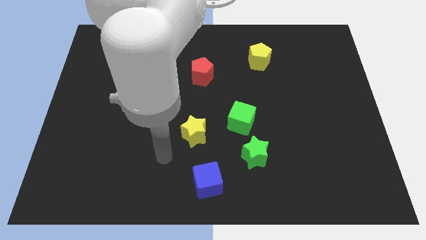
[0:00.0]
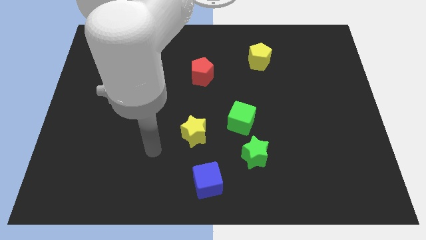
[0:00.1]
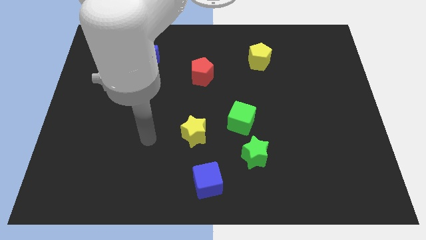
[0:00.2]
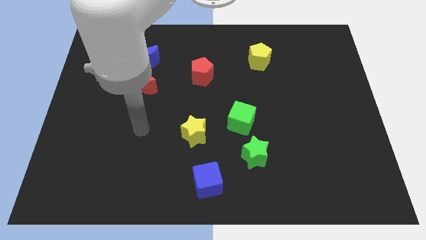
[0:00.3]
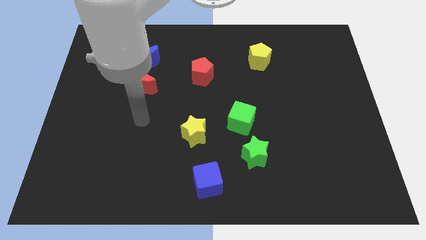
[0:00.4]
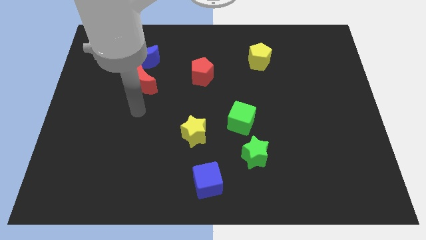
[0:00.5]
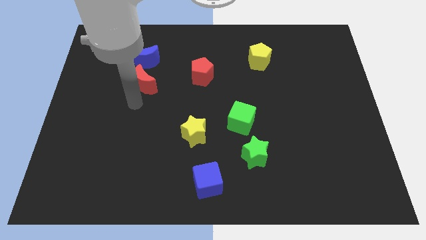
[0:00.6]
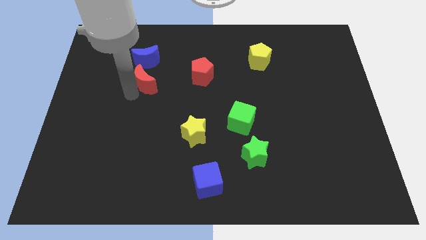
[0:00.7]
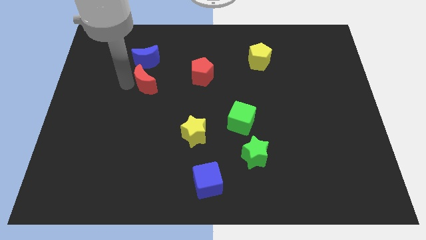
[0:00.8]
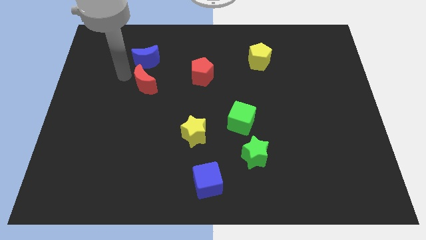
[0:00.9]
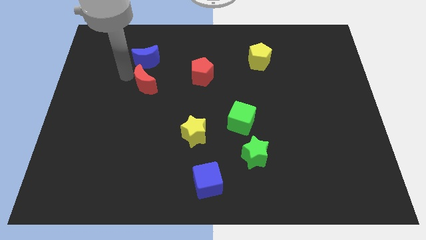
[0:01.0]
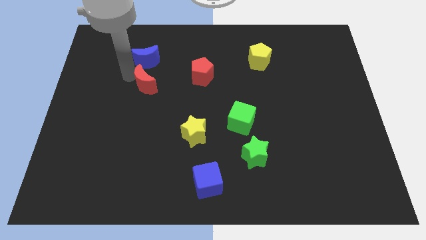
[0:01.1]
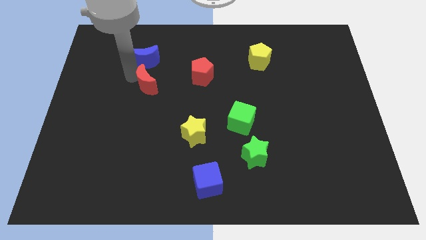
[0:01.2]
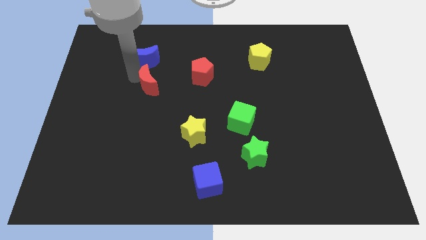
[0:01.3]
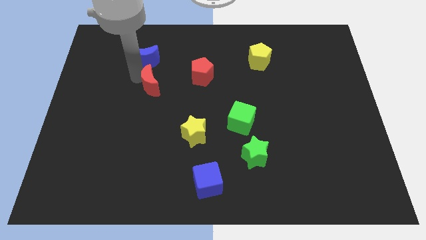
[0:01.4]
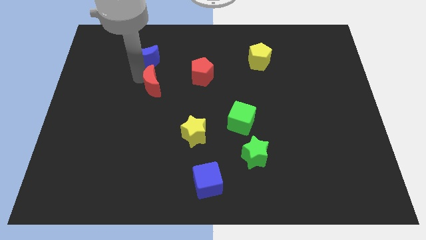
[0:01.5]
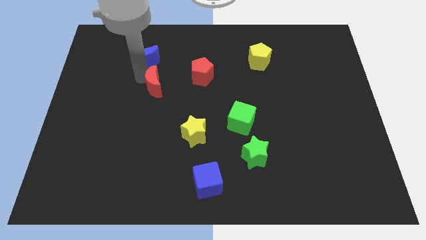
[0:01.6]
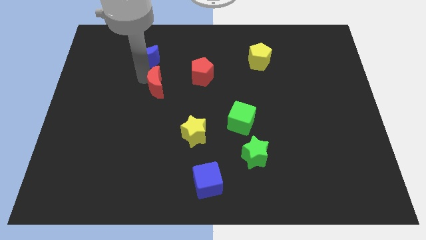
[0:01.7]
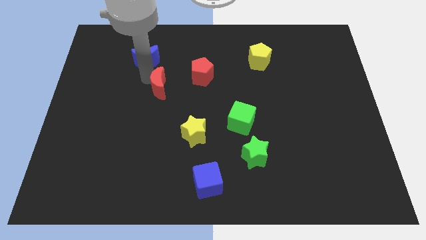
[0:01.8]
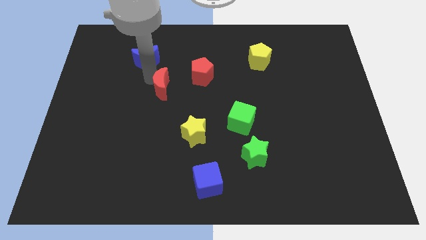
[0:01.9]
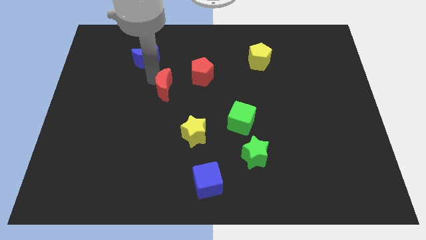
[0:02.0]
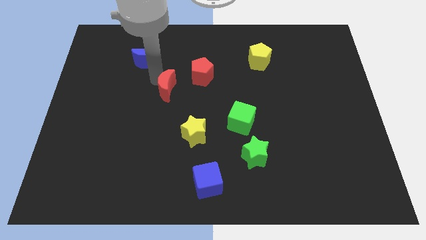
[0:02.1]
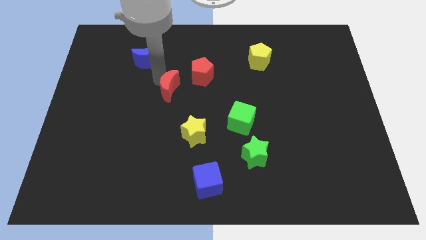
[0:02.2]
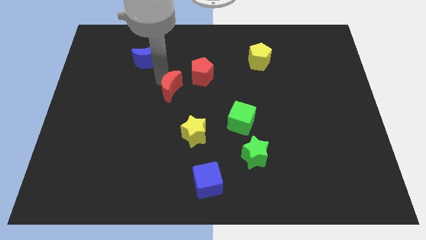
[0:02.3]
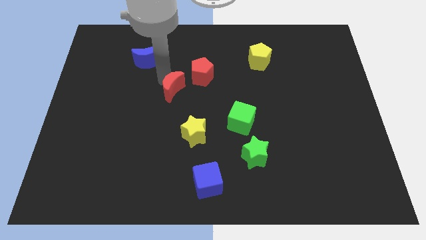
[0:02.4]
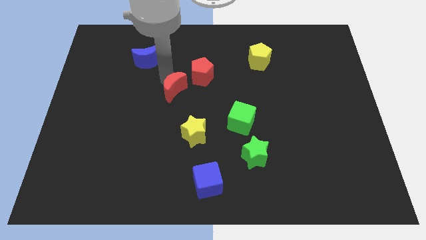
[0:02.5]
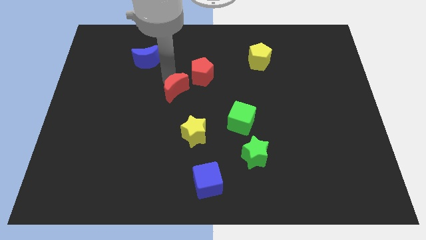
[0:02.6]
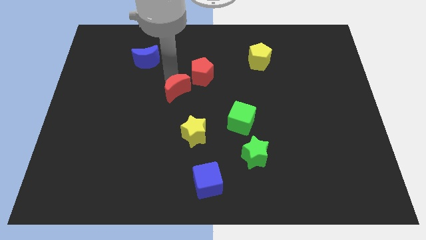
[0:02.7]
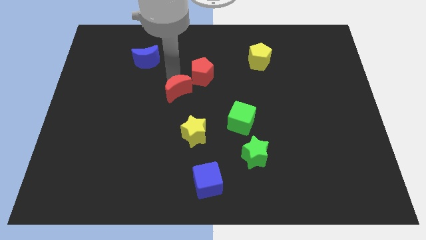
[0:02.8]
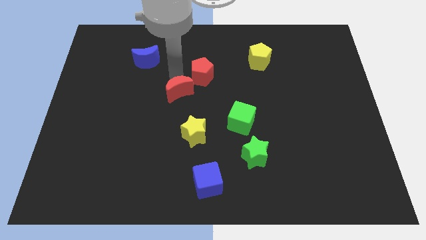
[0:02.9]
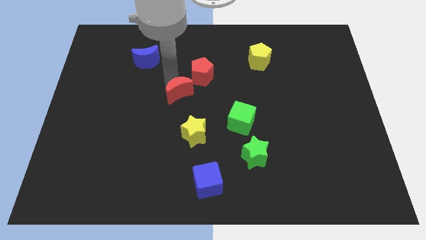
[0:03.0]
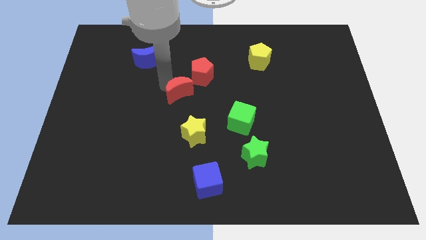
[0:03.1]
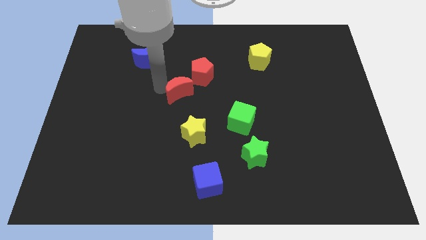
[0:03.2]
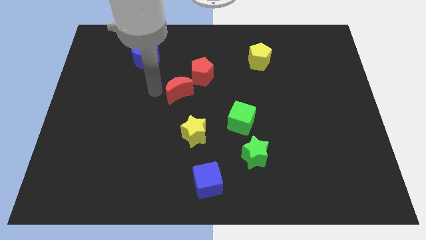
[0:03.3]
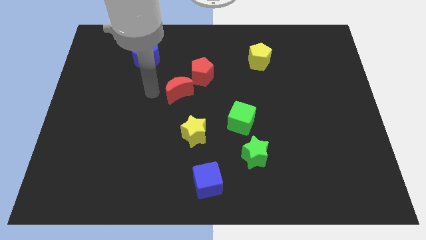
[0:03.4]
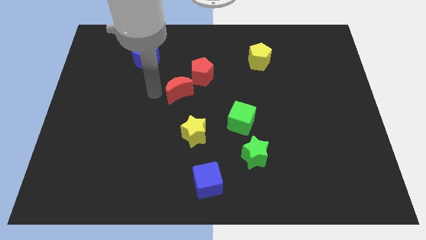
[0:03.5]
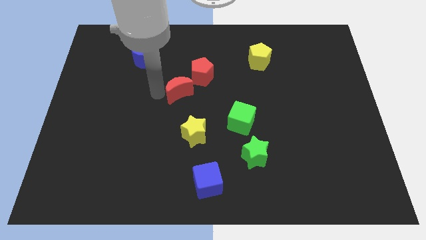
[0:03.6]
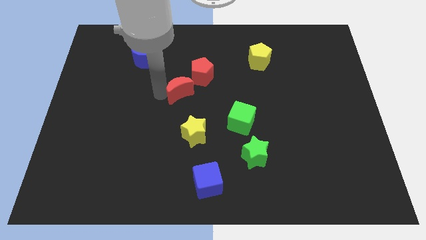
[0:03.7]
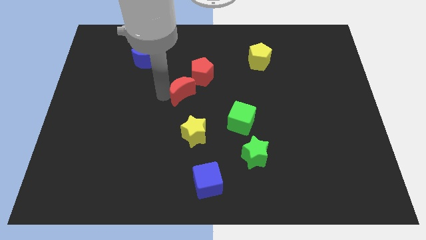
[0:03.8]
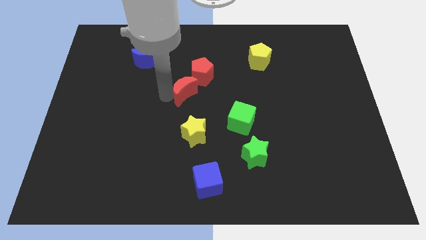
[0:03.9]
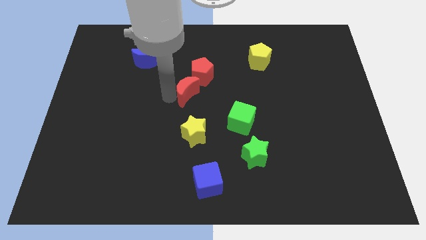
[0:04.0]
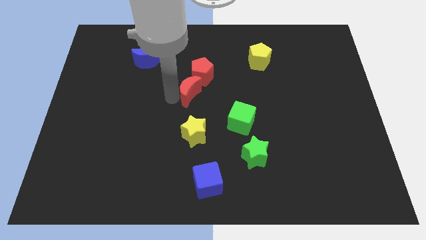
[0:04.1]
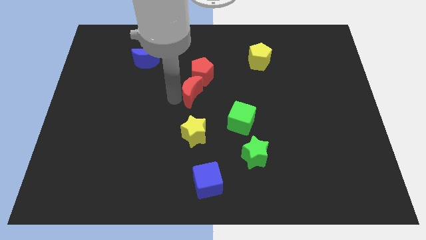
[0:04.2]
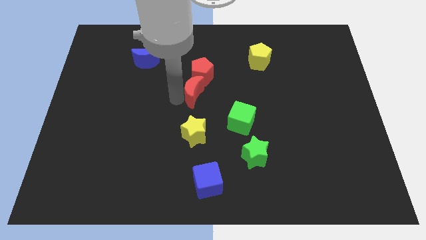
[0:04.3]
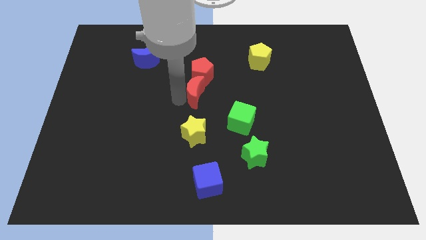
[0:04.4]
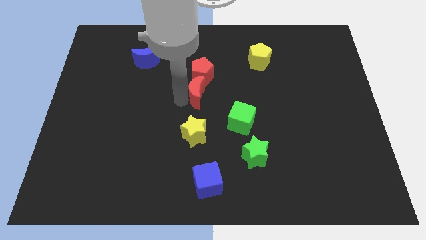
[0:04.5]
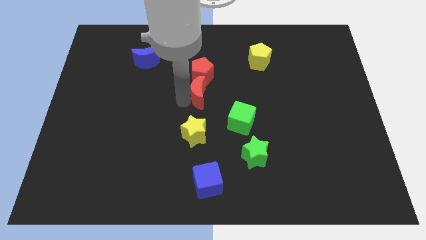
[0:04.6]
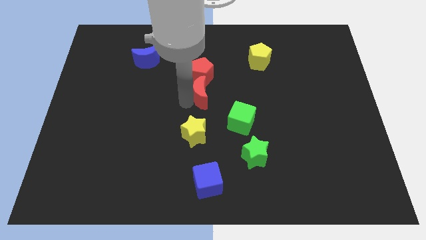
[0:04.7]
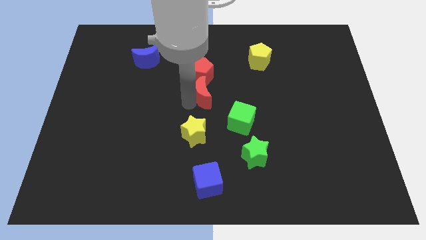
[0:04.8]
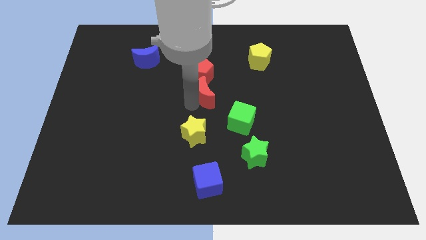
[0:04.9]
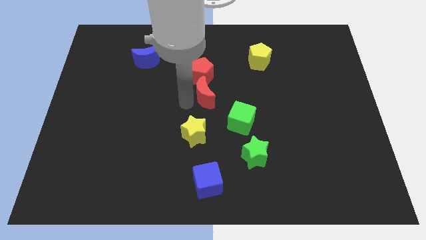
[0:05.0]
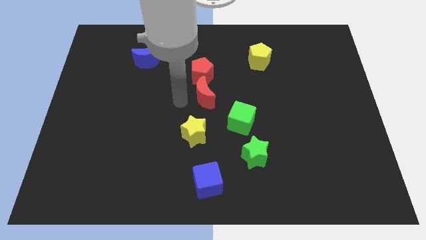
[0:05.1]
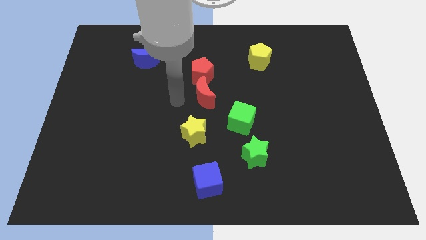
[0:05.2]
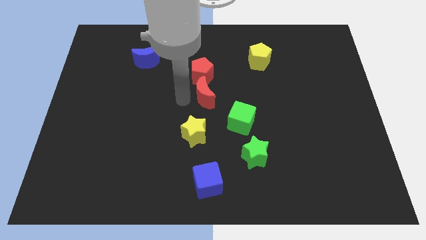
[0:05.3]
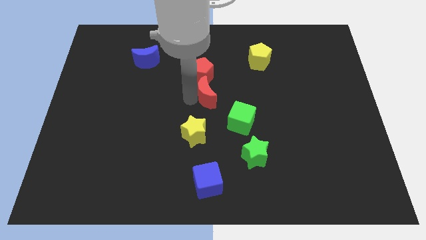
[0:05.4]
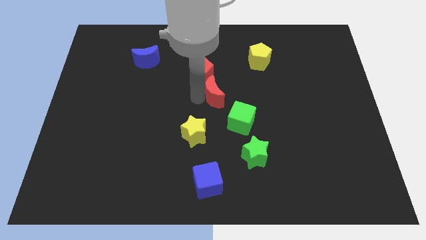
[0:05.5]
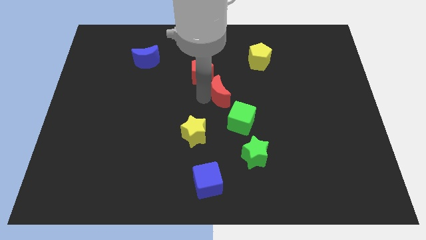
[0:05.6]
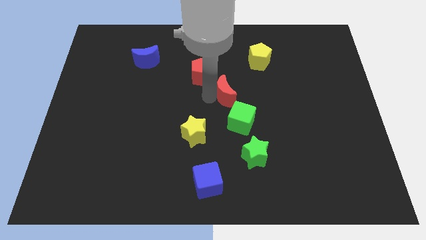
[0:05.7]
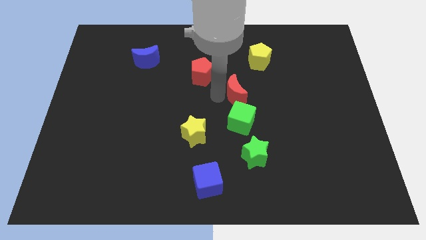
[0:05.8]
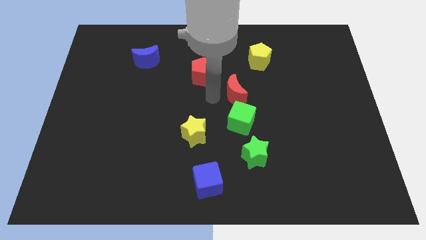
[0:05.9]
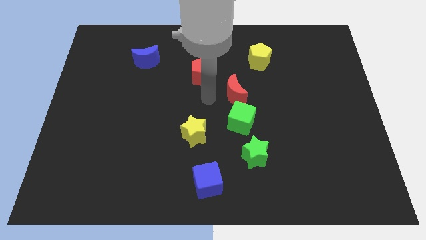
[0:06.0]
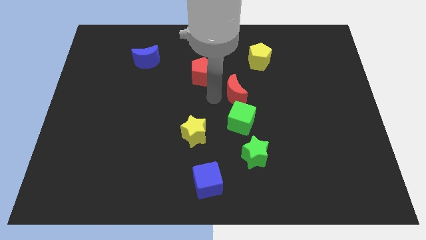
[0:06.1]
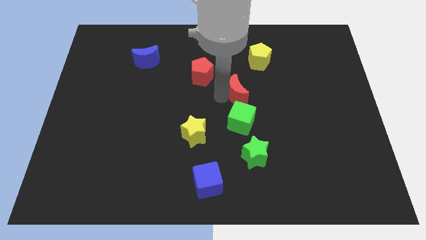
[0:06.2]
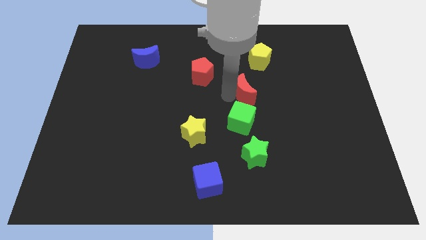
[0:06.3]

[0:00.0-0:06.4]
slide the red moon below the yellow pentagon

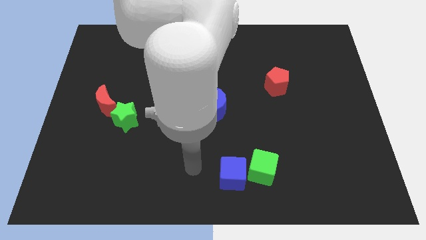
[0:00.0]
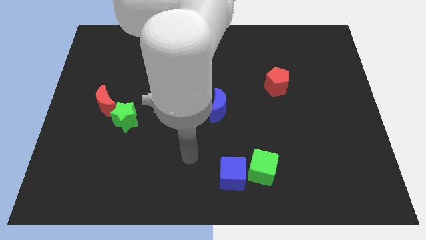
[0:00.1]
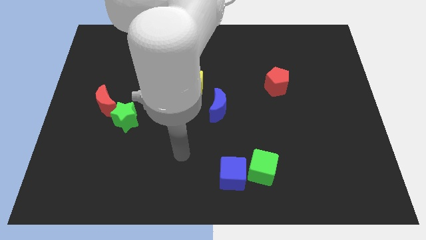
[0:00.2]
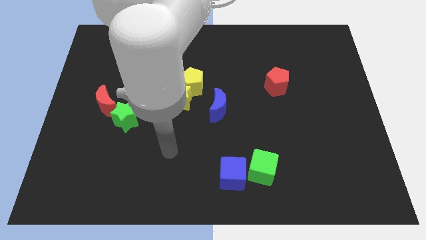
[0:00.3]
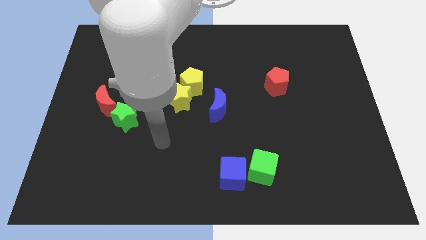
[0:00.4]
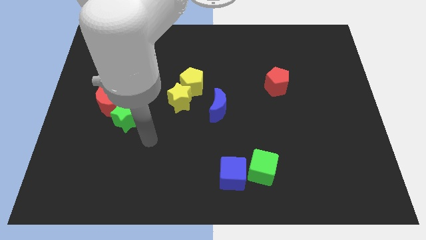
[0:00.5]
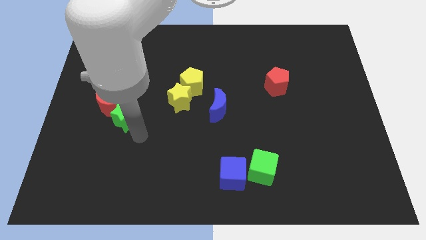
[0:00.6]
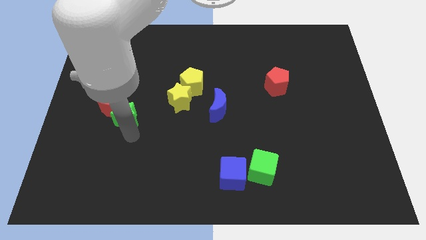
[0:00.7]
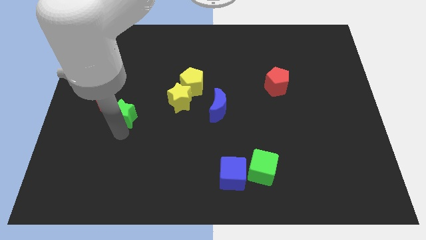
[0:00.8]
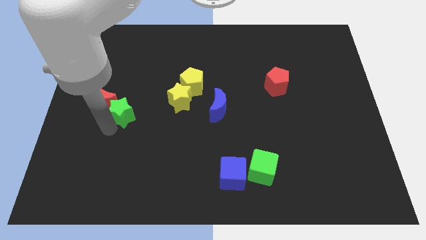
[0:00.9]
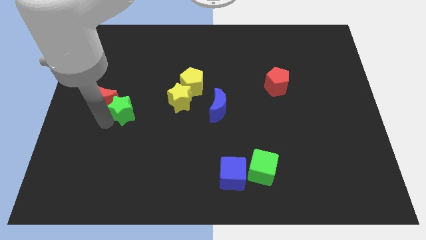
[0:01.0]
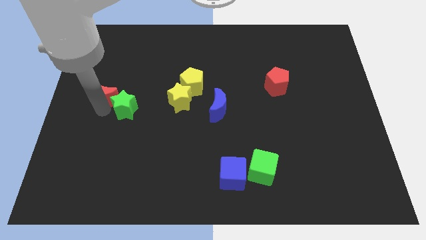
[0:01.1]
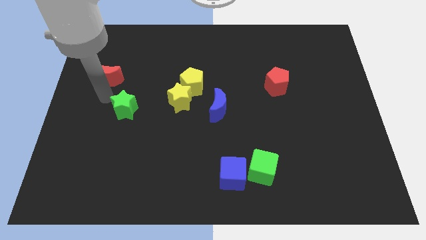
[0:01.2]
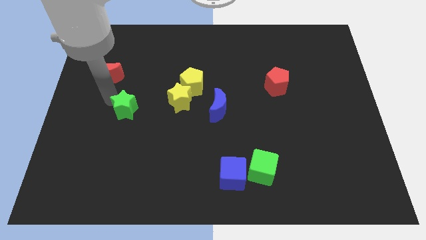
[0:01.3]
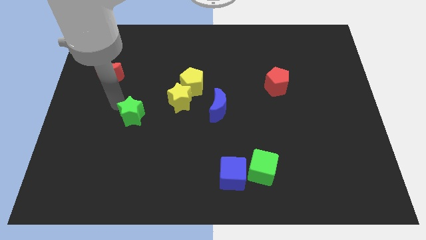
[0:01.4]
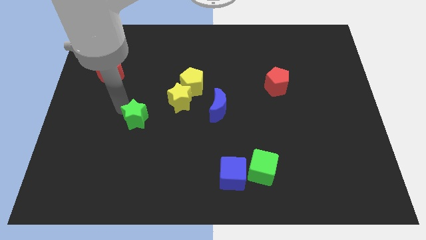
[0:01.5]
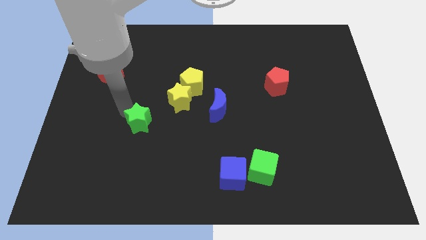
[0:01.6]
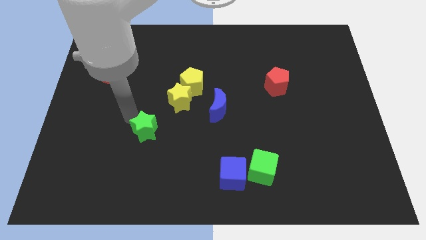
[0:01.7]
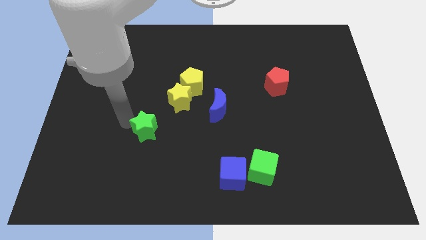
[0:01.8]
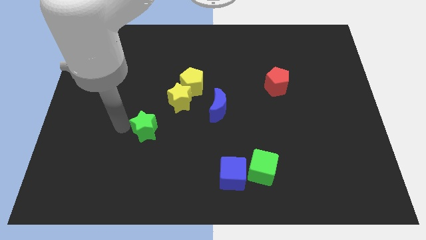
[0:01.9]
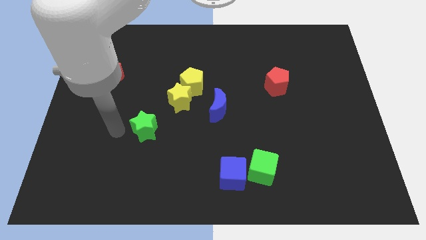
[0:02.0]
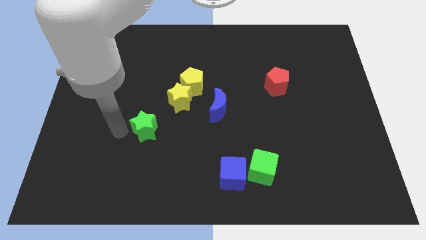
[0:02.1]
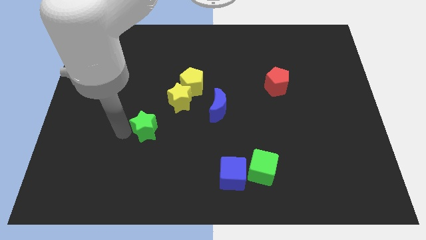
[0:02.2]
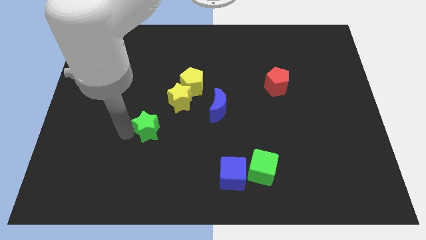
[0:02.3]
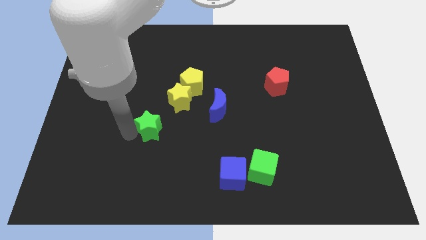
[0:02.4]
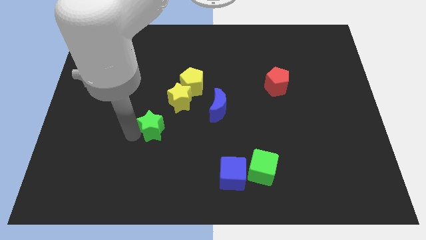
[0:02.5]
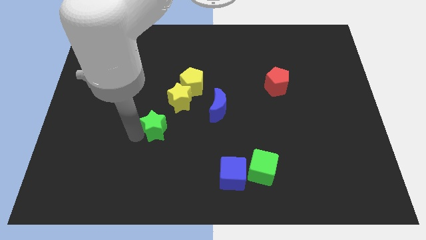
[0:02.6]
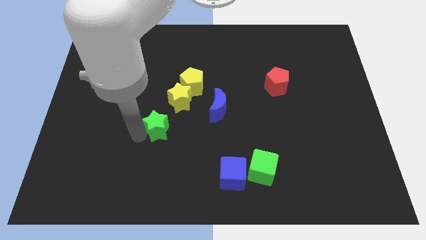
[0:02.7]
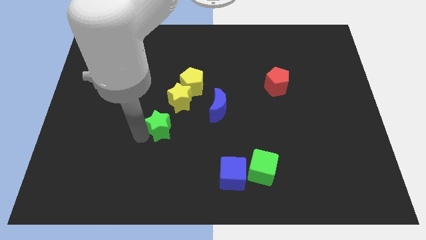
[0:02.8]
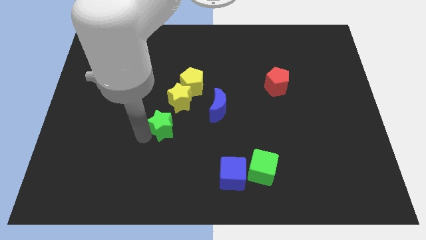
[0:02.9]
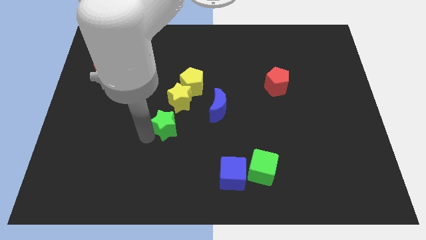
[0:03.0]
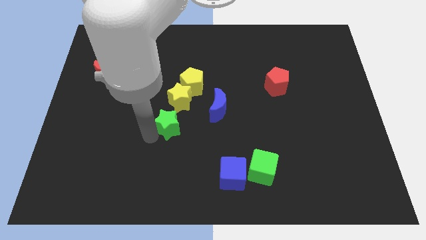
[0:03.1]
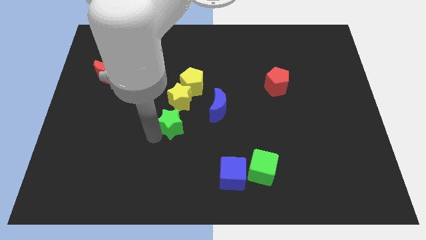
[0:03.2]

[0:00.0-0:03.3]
slide the green star to the bottom side of the yellow pentagon
